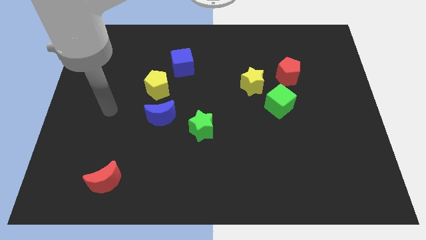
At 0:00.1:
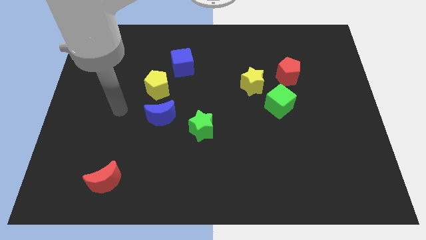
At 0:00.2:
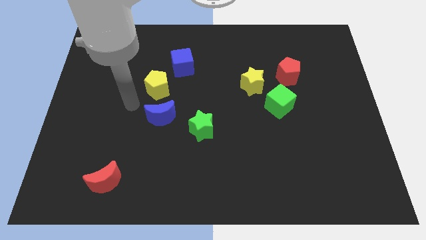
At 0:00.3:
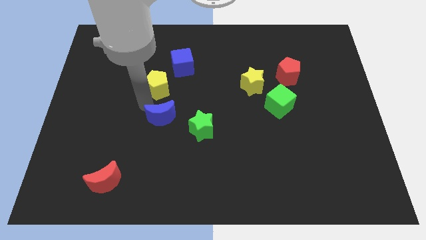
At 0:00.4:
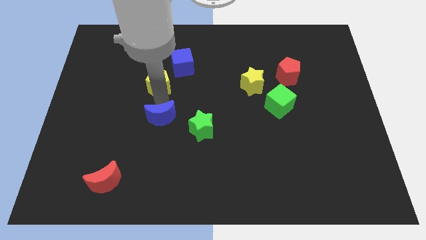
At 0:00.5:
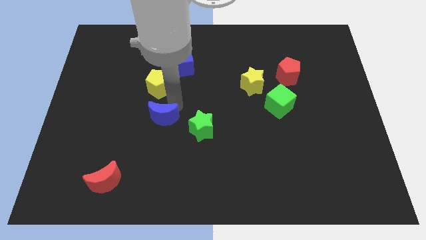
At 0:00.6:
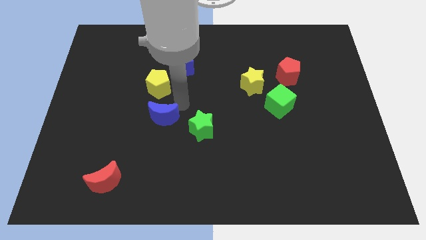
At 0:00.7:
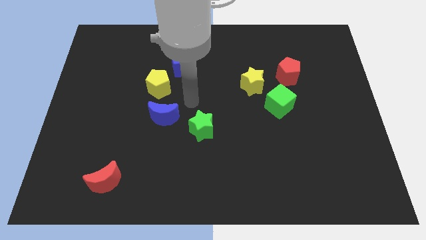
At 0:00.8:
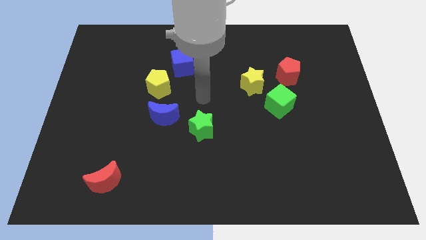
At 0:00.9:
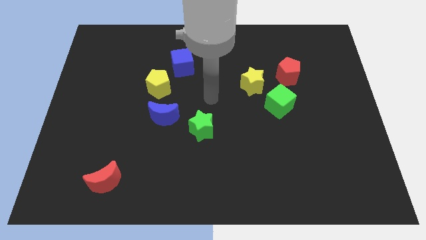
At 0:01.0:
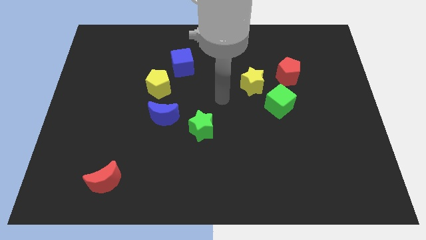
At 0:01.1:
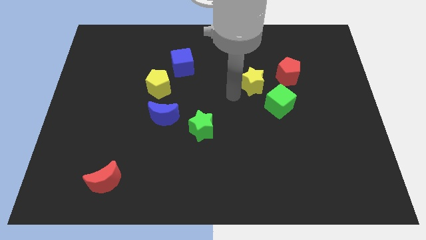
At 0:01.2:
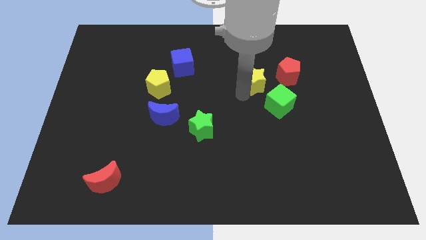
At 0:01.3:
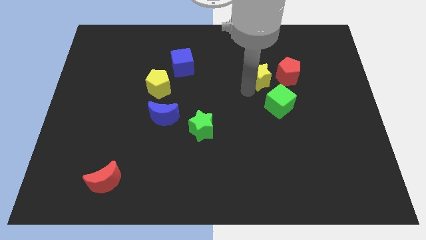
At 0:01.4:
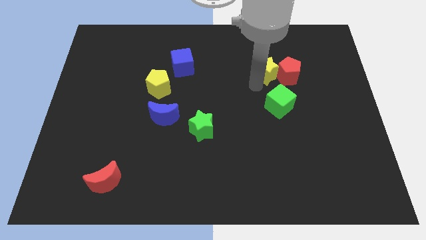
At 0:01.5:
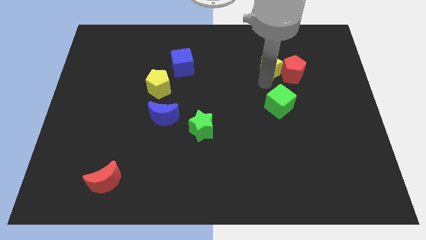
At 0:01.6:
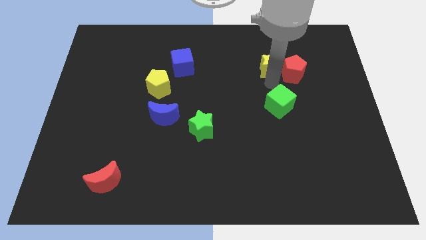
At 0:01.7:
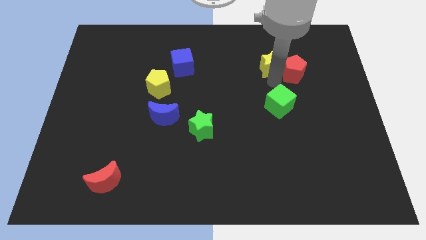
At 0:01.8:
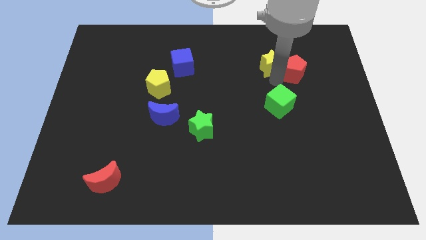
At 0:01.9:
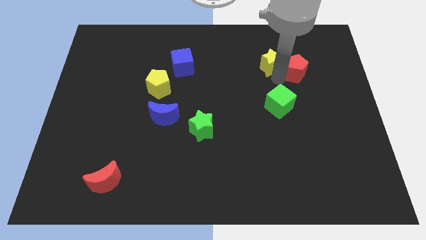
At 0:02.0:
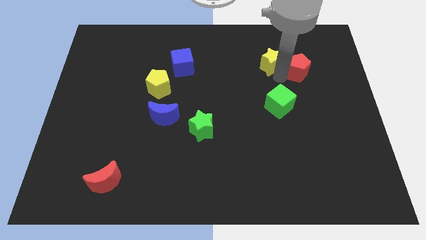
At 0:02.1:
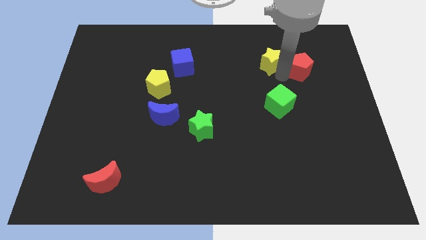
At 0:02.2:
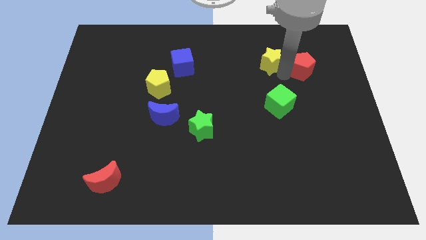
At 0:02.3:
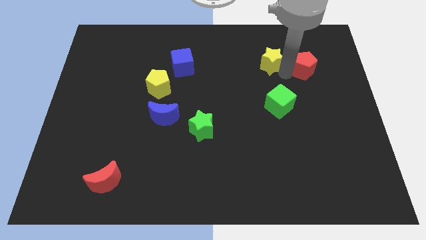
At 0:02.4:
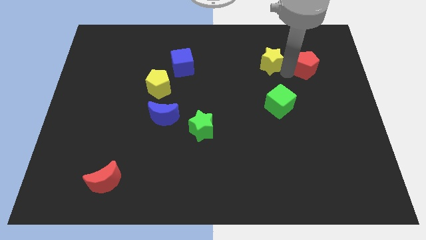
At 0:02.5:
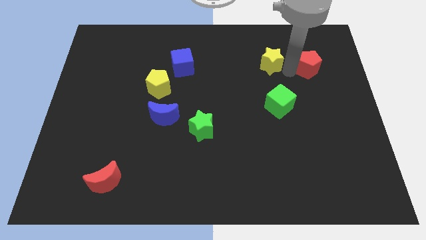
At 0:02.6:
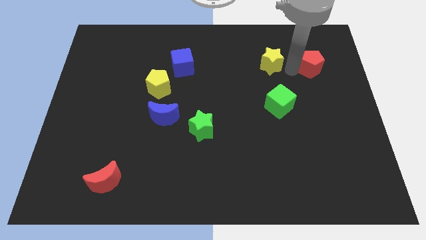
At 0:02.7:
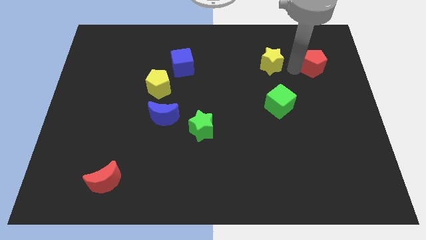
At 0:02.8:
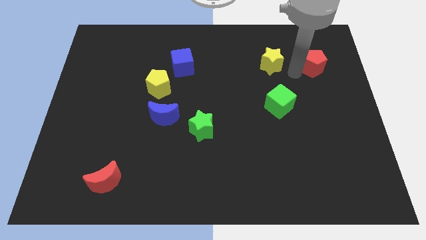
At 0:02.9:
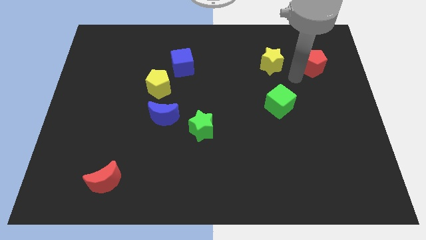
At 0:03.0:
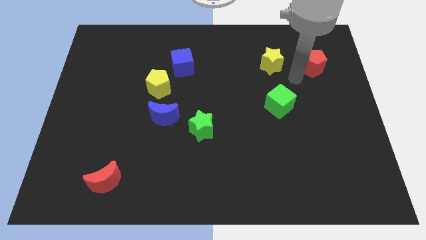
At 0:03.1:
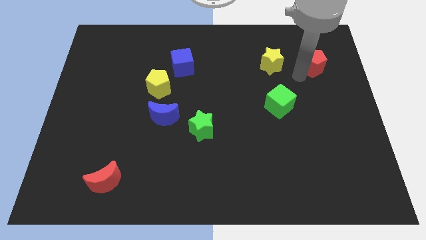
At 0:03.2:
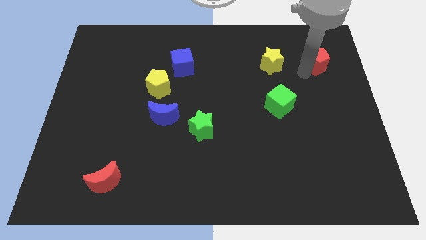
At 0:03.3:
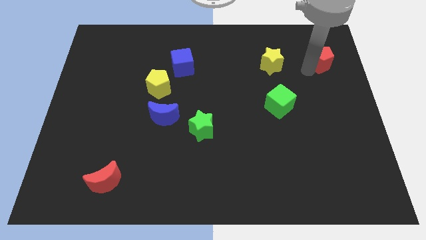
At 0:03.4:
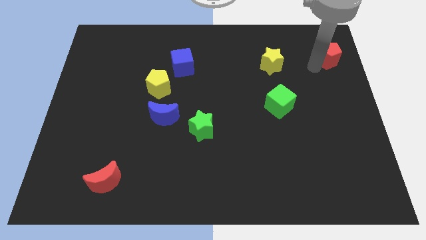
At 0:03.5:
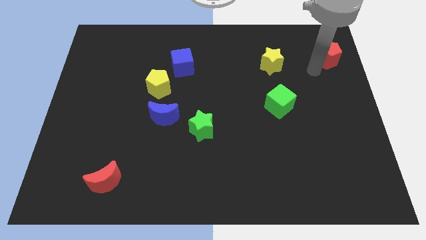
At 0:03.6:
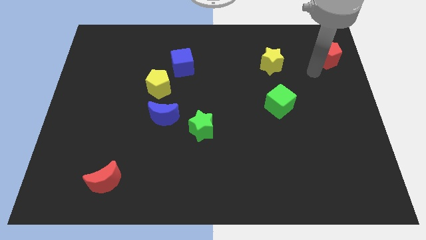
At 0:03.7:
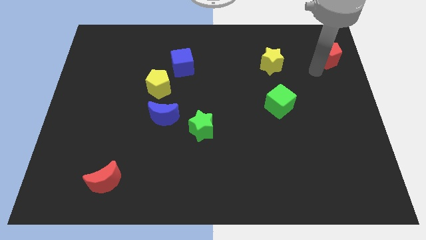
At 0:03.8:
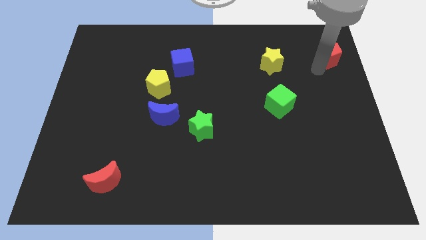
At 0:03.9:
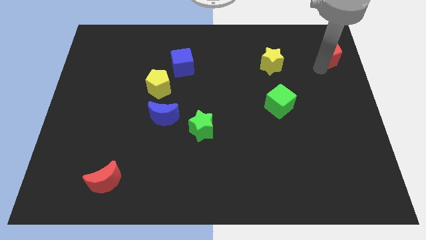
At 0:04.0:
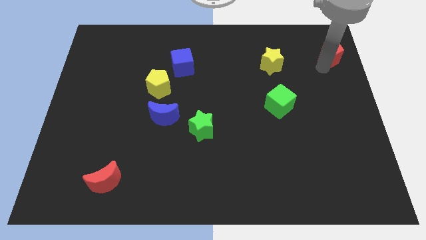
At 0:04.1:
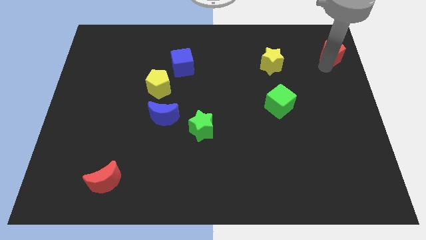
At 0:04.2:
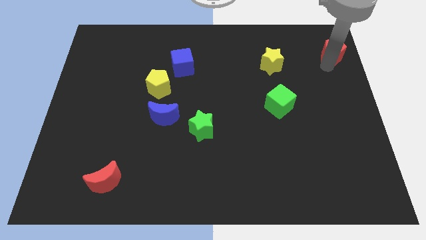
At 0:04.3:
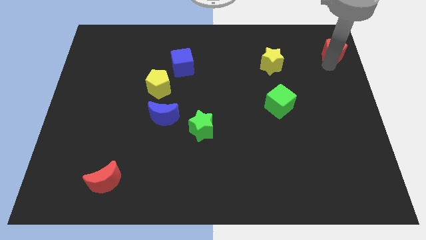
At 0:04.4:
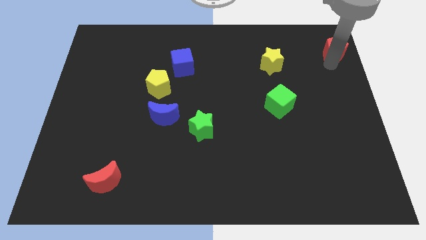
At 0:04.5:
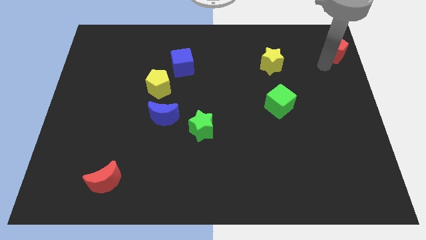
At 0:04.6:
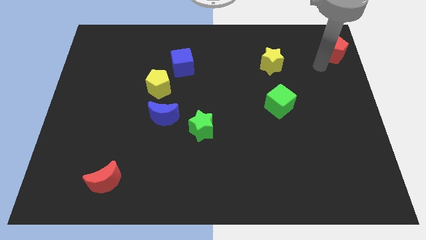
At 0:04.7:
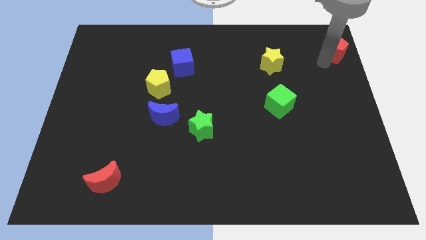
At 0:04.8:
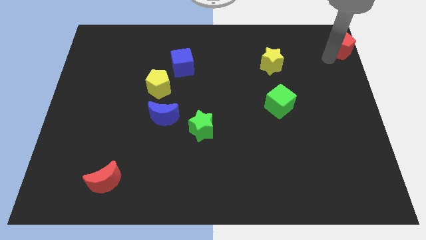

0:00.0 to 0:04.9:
push the red pentagon to the top right corner

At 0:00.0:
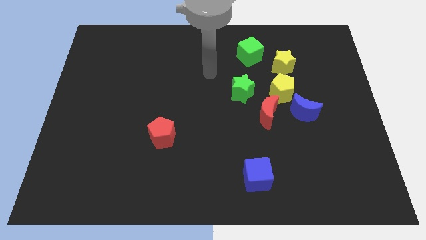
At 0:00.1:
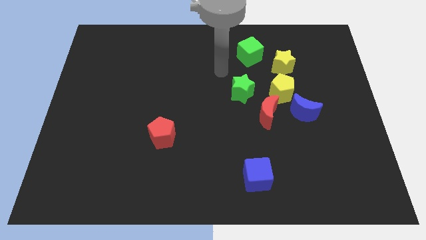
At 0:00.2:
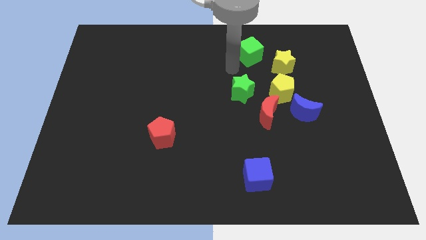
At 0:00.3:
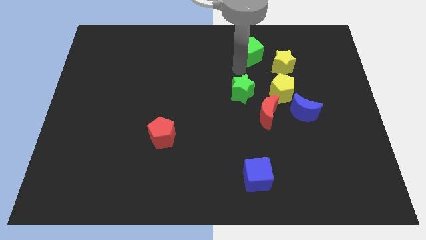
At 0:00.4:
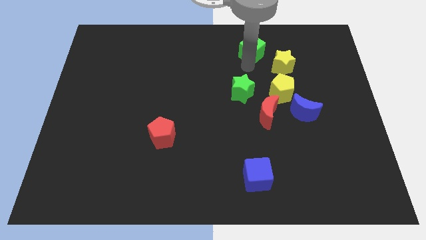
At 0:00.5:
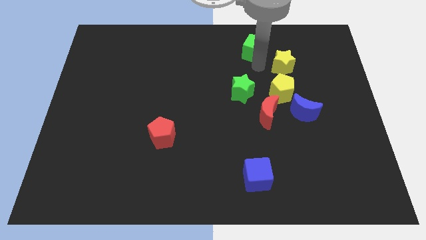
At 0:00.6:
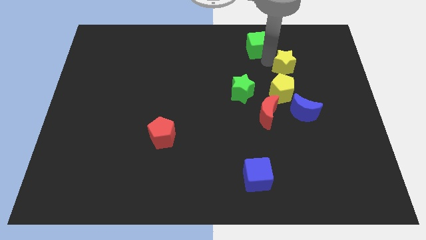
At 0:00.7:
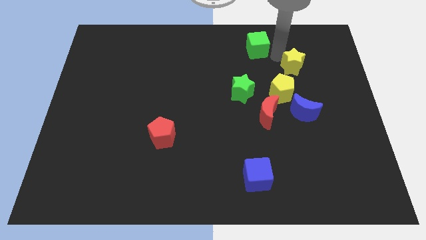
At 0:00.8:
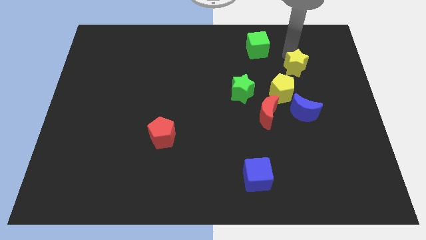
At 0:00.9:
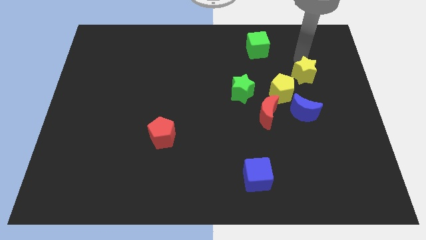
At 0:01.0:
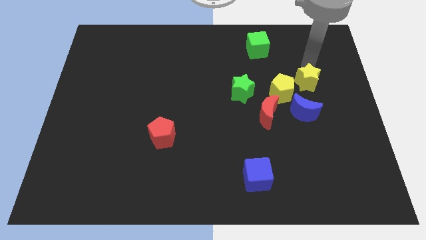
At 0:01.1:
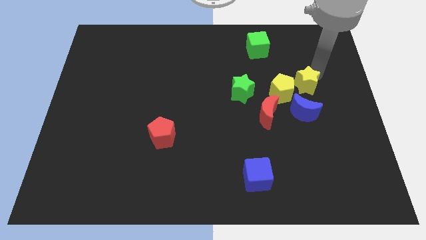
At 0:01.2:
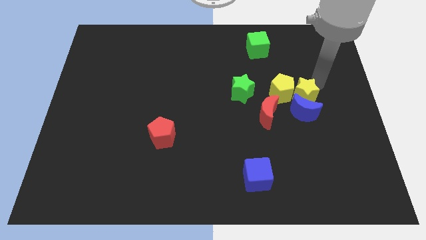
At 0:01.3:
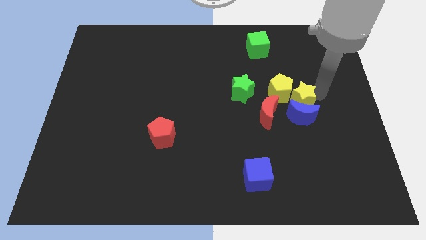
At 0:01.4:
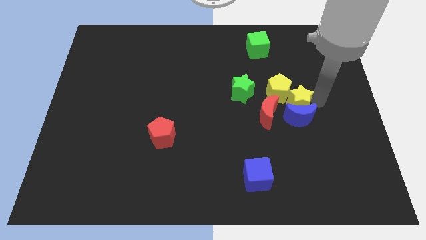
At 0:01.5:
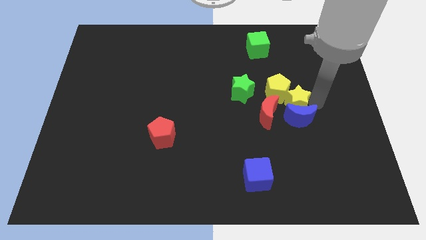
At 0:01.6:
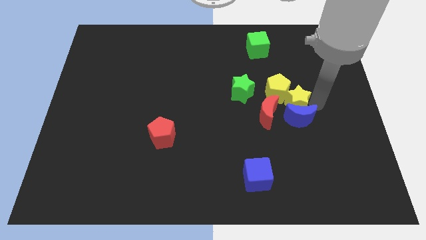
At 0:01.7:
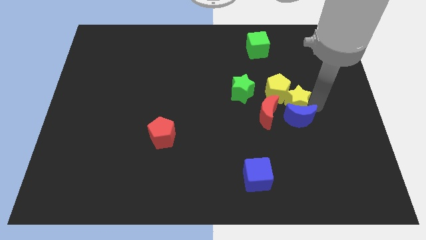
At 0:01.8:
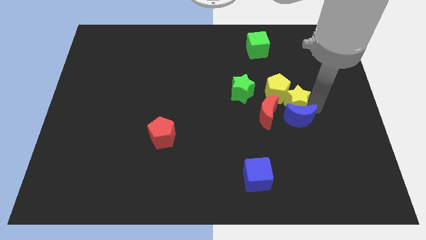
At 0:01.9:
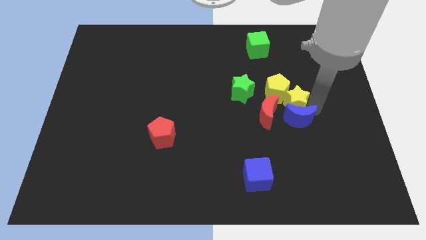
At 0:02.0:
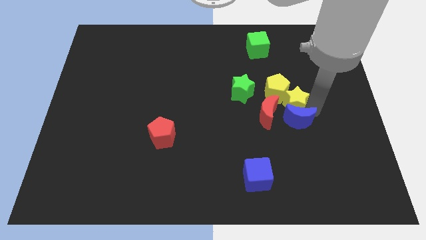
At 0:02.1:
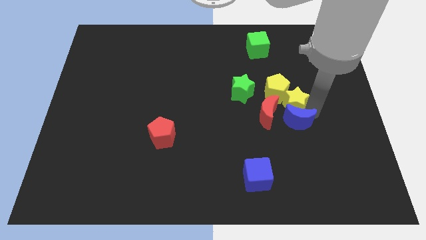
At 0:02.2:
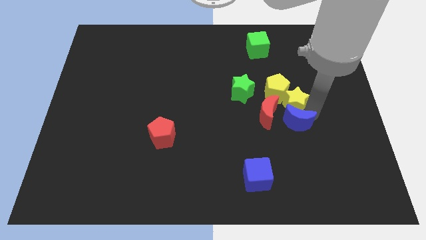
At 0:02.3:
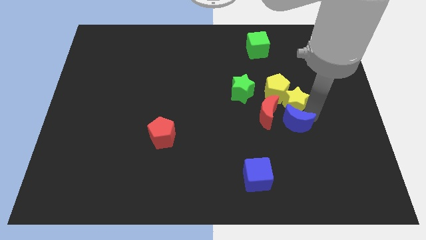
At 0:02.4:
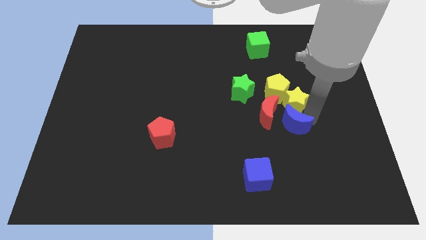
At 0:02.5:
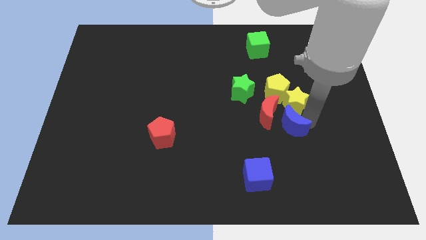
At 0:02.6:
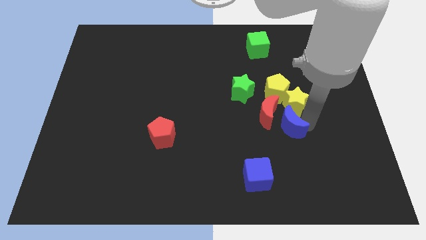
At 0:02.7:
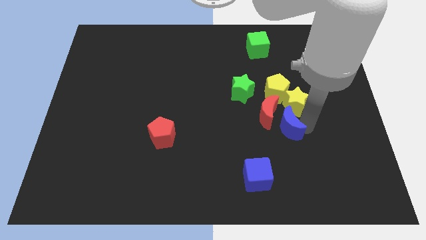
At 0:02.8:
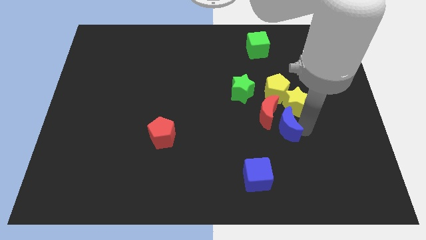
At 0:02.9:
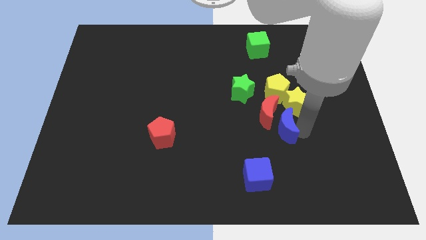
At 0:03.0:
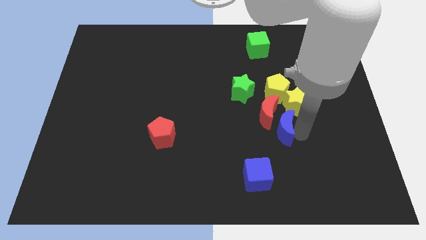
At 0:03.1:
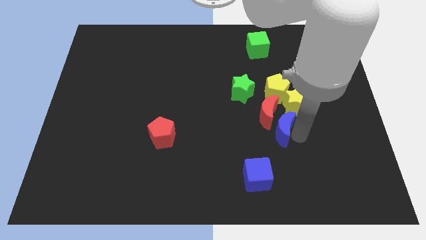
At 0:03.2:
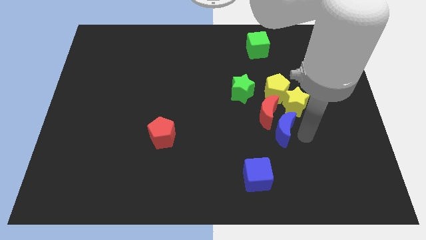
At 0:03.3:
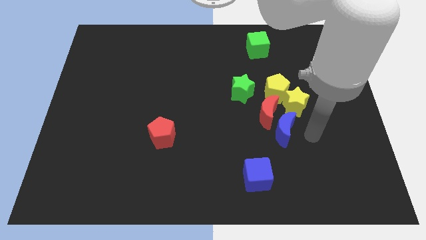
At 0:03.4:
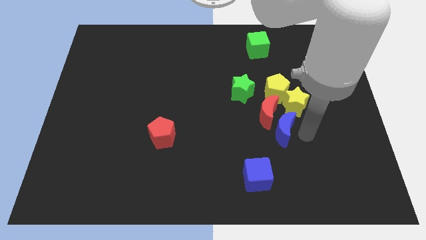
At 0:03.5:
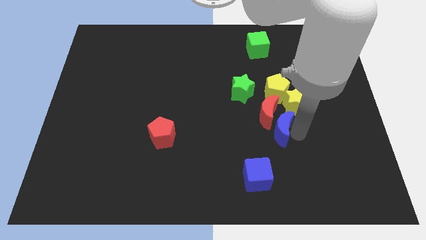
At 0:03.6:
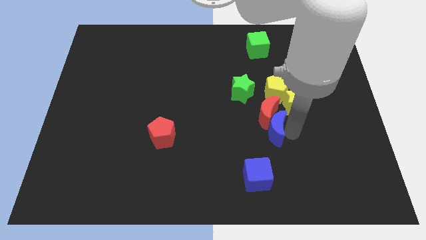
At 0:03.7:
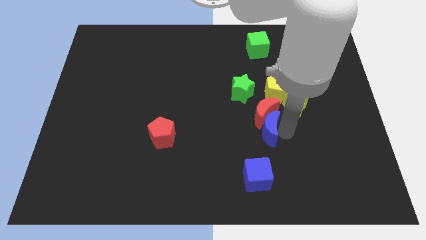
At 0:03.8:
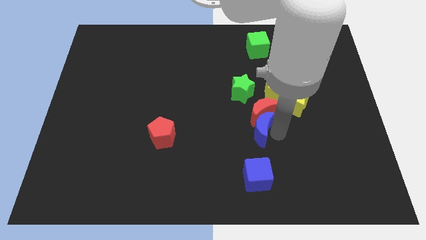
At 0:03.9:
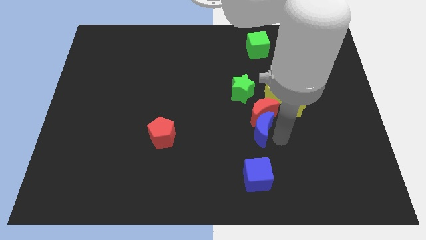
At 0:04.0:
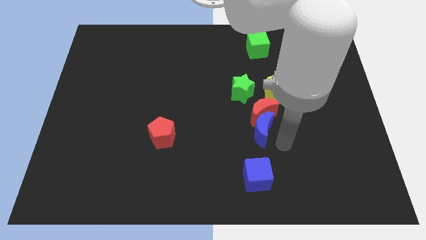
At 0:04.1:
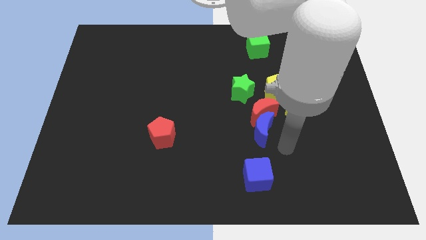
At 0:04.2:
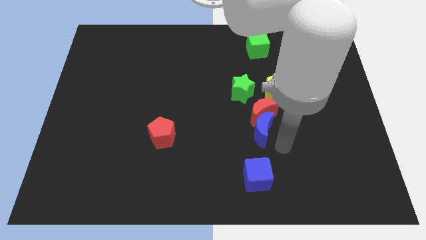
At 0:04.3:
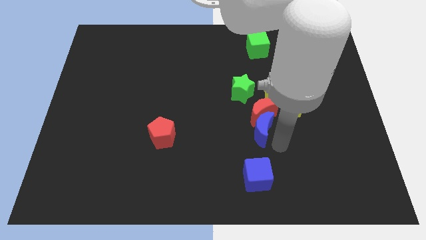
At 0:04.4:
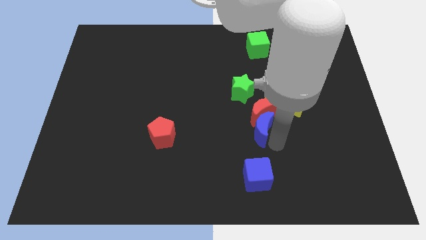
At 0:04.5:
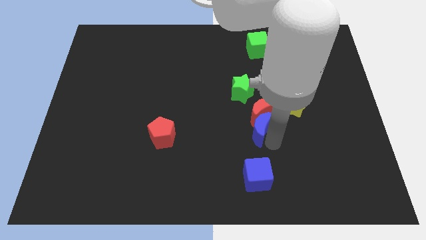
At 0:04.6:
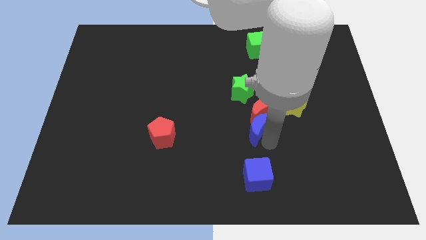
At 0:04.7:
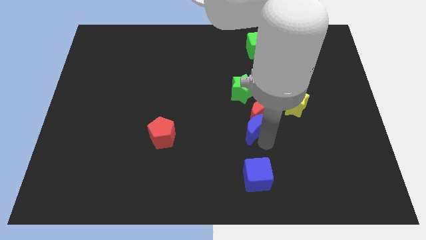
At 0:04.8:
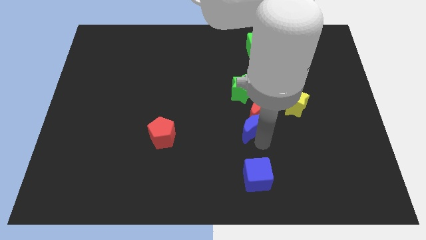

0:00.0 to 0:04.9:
move the blue moon to the middle
